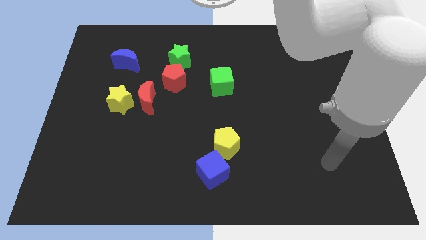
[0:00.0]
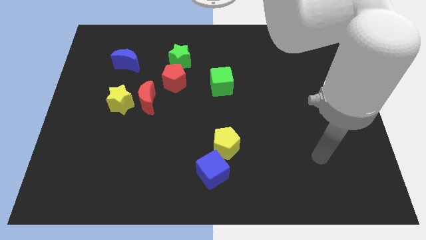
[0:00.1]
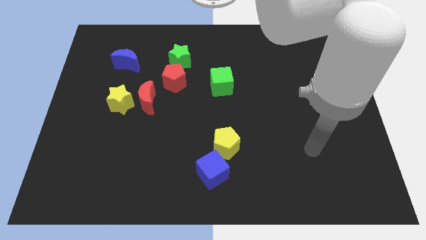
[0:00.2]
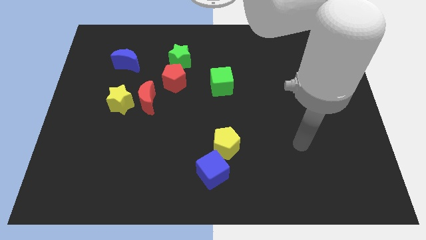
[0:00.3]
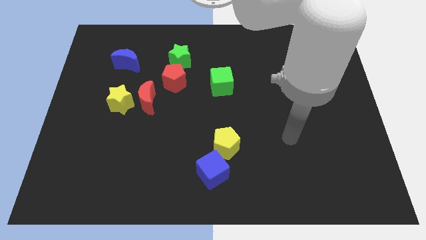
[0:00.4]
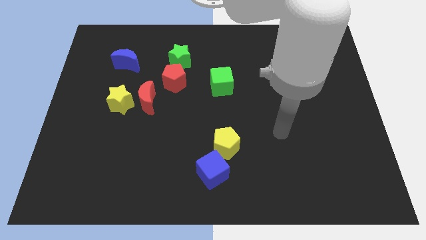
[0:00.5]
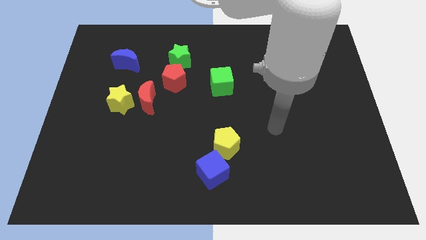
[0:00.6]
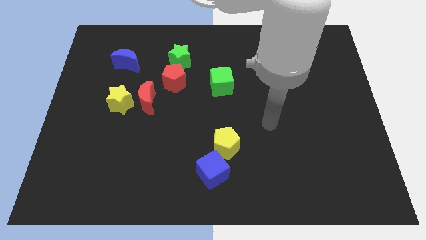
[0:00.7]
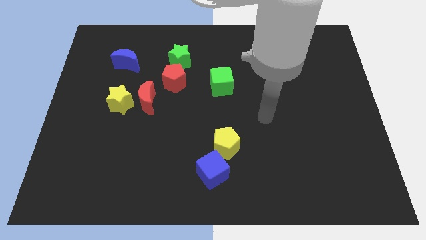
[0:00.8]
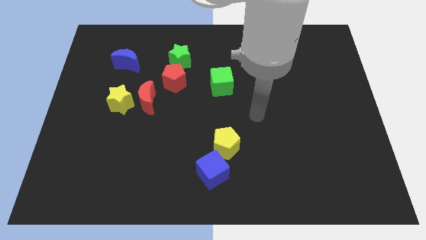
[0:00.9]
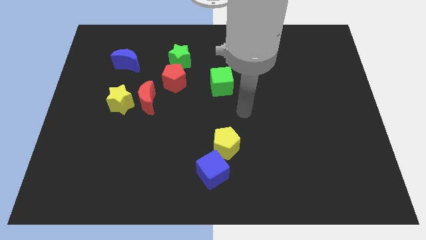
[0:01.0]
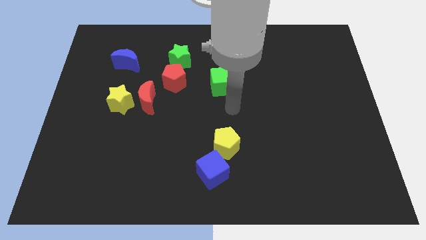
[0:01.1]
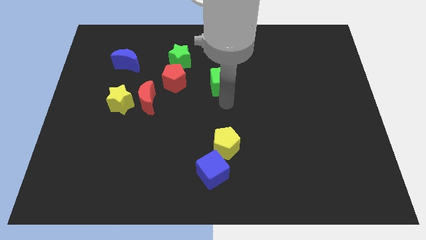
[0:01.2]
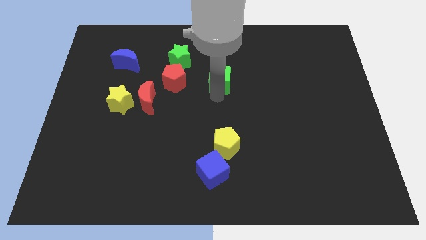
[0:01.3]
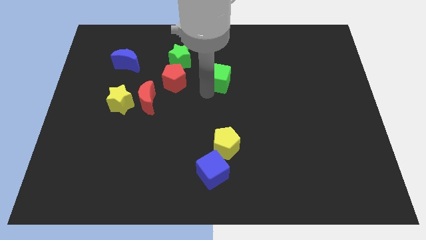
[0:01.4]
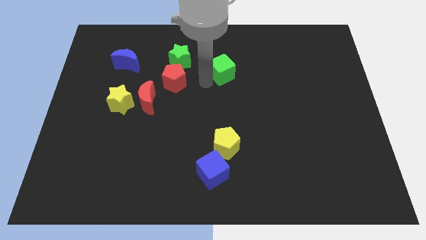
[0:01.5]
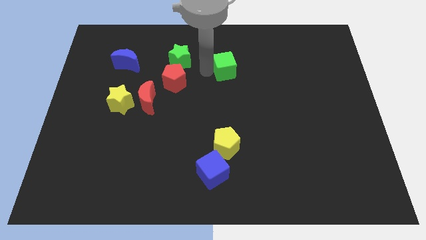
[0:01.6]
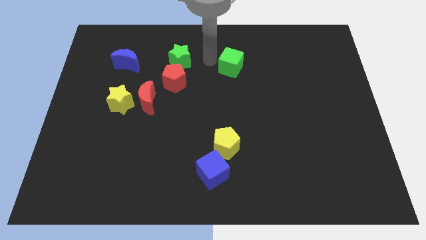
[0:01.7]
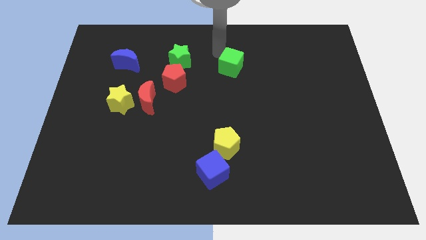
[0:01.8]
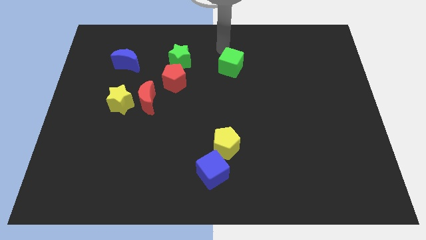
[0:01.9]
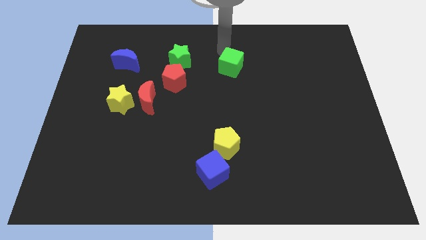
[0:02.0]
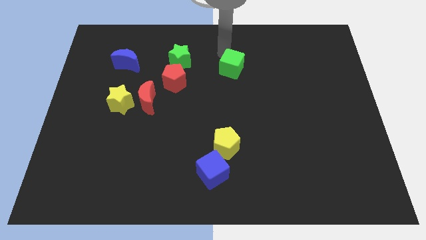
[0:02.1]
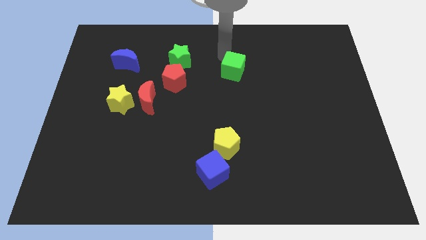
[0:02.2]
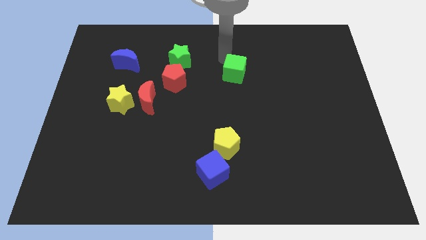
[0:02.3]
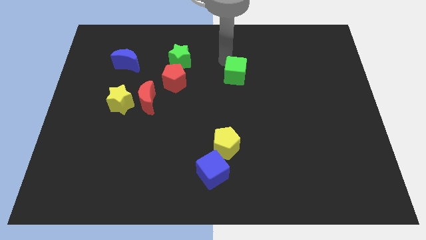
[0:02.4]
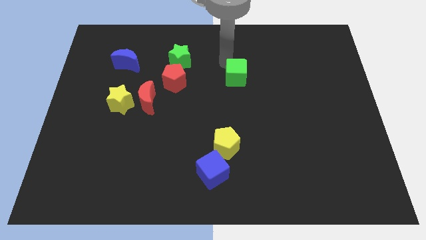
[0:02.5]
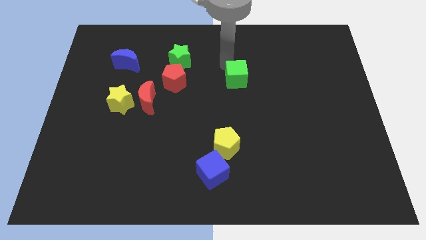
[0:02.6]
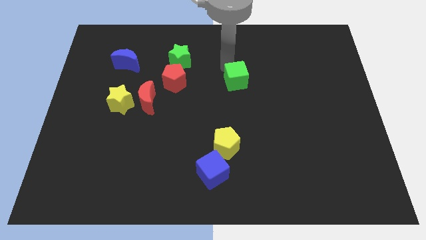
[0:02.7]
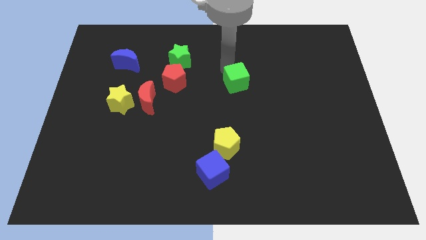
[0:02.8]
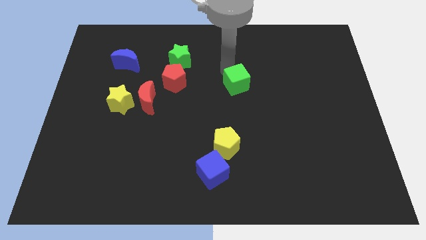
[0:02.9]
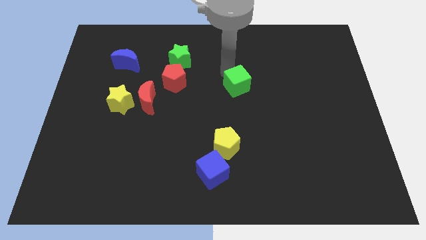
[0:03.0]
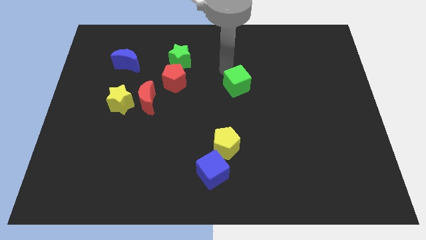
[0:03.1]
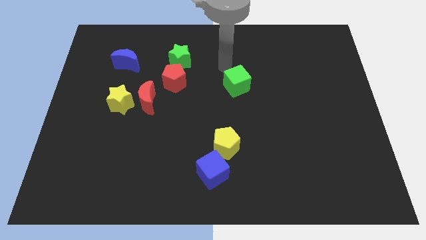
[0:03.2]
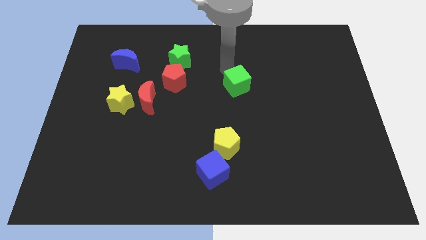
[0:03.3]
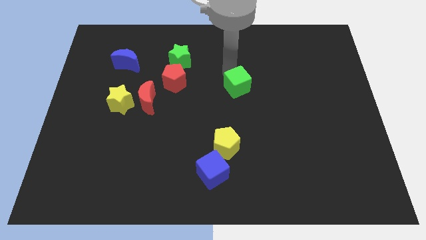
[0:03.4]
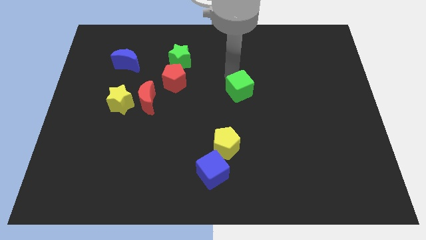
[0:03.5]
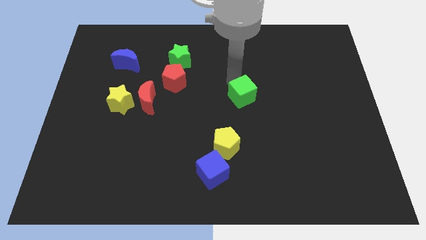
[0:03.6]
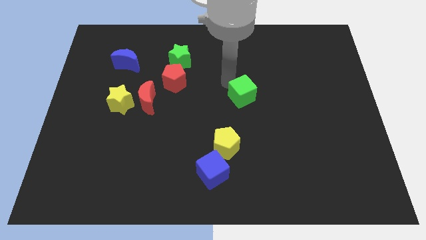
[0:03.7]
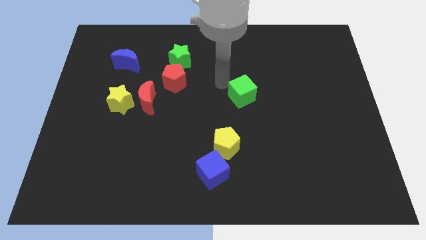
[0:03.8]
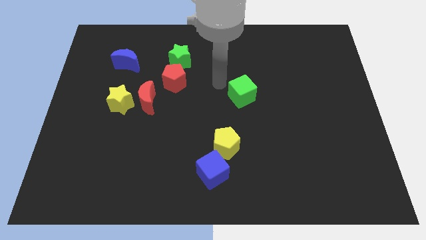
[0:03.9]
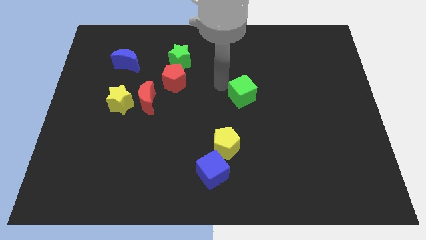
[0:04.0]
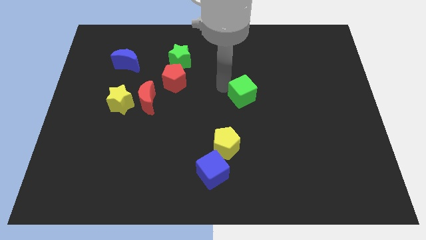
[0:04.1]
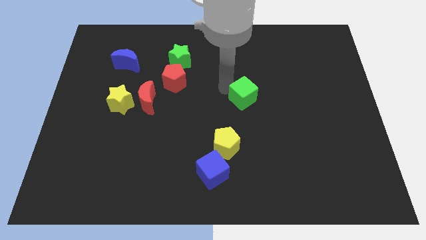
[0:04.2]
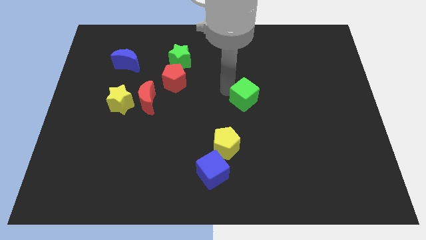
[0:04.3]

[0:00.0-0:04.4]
slightly push the green cube down and then to the right

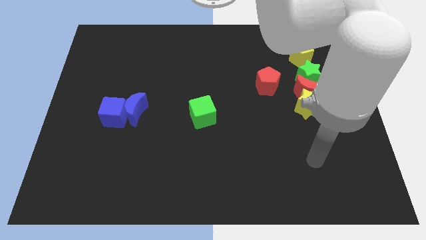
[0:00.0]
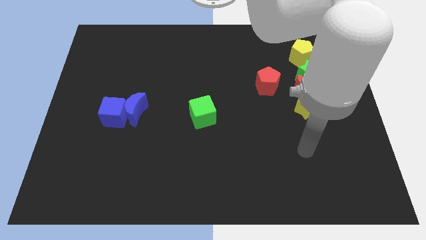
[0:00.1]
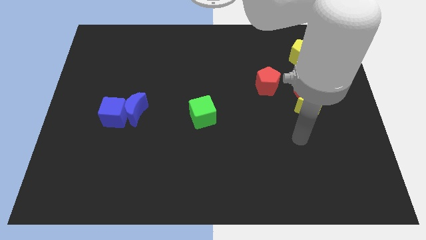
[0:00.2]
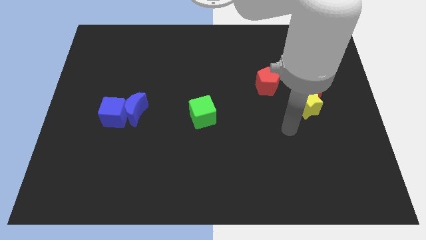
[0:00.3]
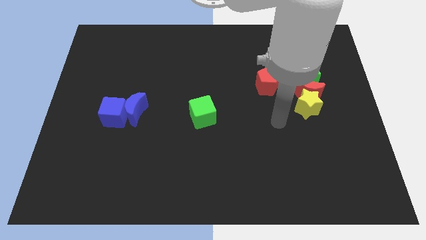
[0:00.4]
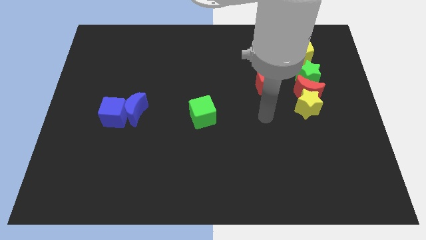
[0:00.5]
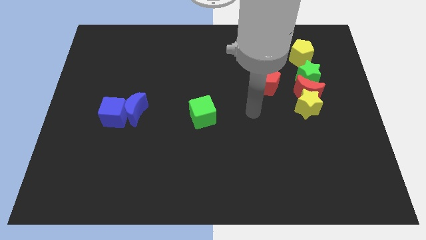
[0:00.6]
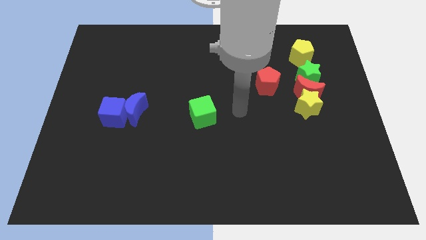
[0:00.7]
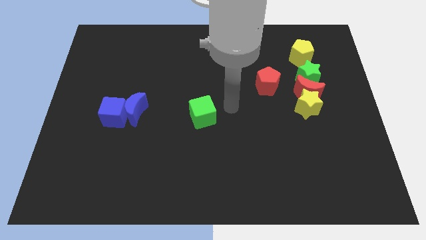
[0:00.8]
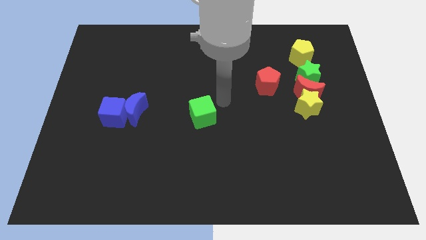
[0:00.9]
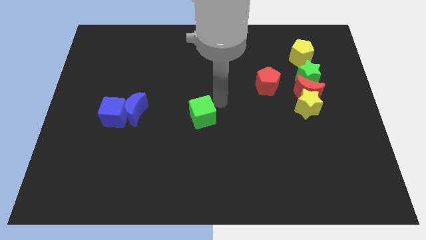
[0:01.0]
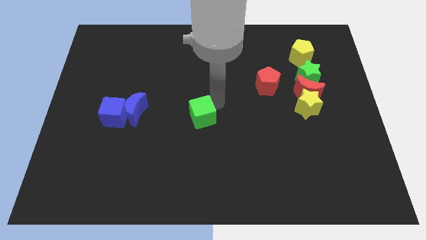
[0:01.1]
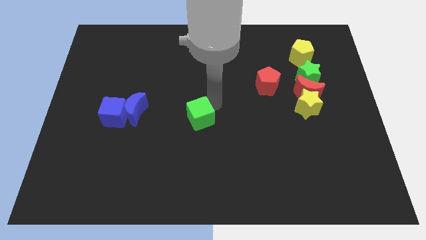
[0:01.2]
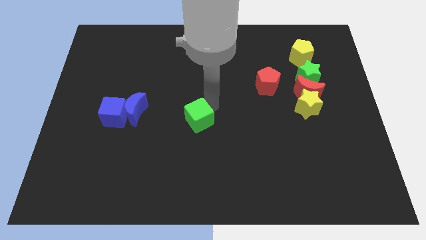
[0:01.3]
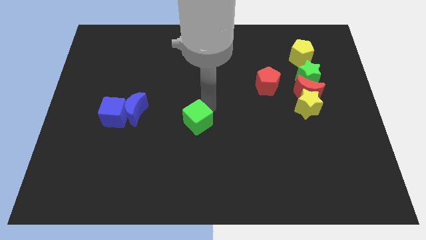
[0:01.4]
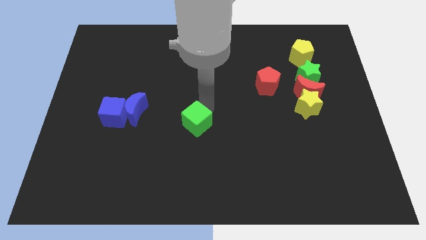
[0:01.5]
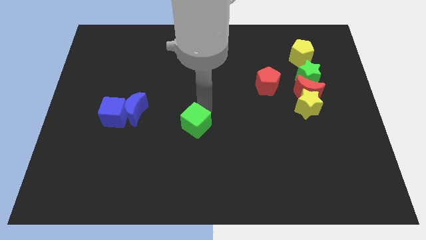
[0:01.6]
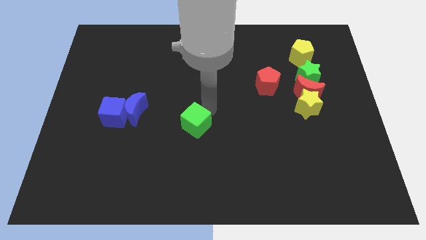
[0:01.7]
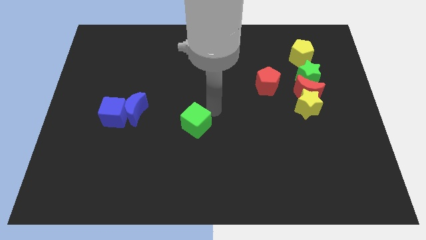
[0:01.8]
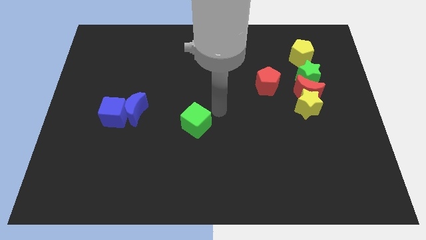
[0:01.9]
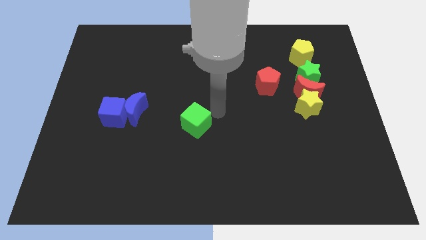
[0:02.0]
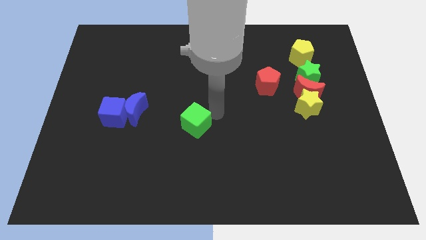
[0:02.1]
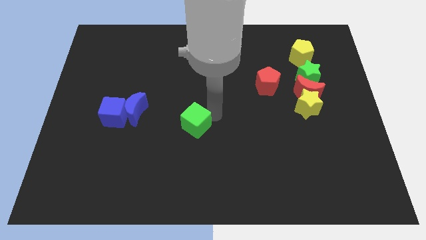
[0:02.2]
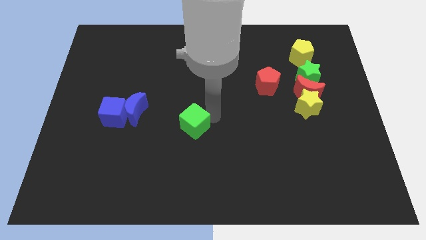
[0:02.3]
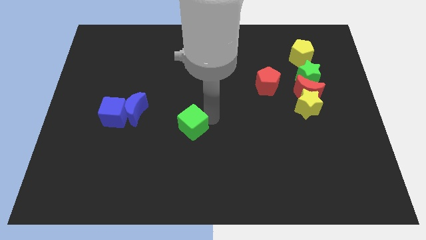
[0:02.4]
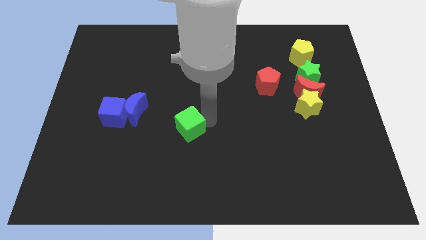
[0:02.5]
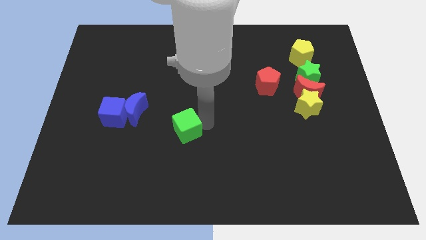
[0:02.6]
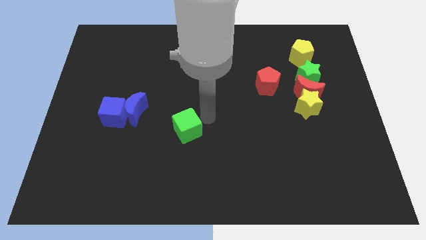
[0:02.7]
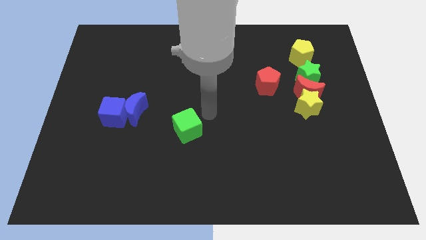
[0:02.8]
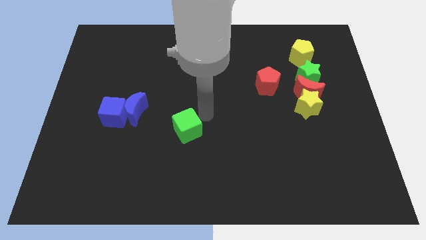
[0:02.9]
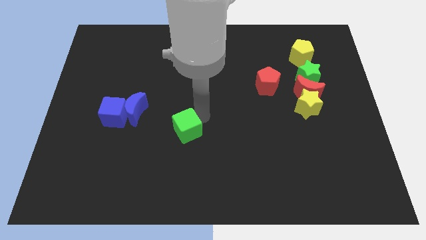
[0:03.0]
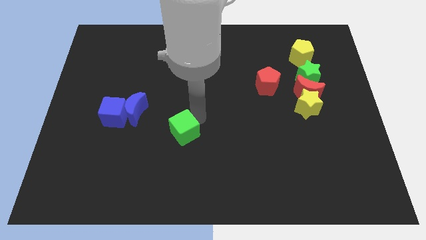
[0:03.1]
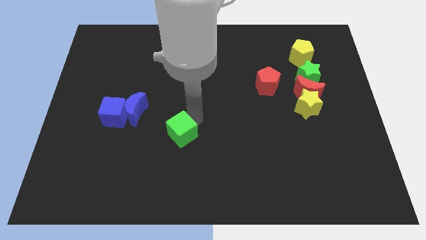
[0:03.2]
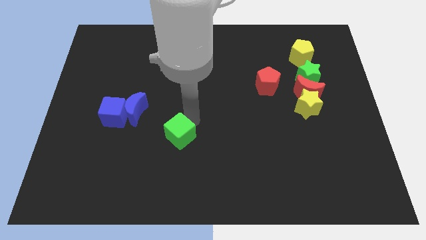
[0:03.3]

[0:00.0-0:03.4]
slide the green cube a little down and to the left diagonally

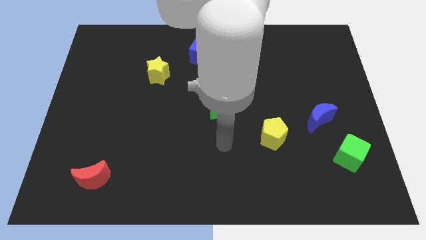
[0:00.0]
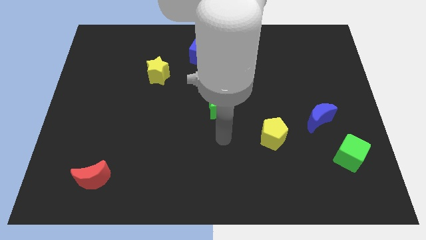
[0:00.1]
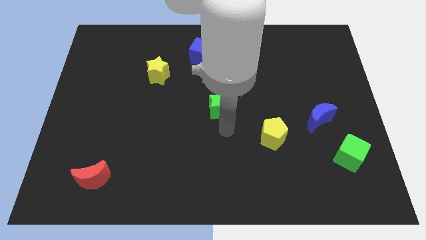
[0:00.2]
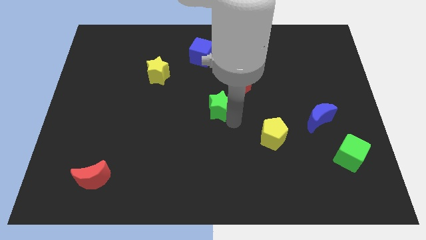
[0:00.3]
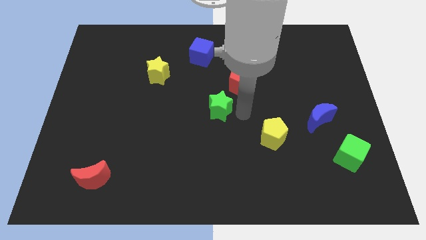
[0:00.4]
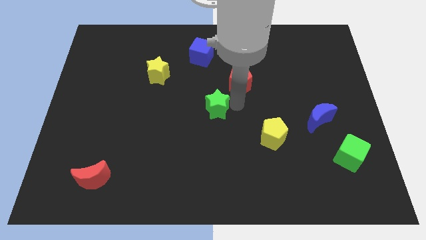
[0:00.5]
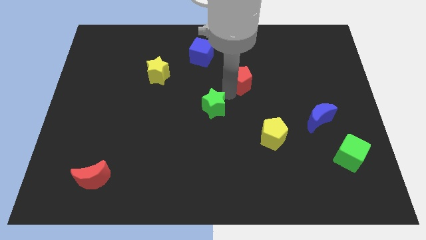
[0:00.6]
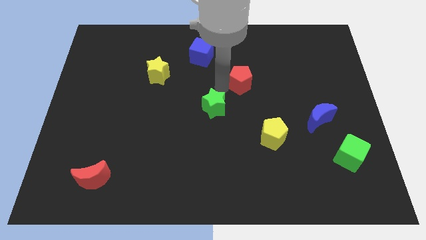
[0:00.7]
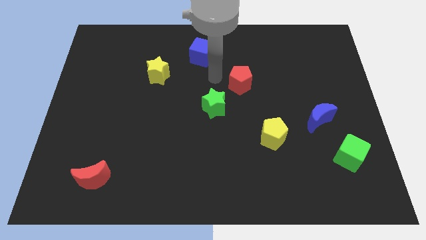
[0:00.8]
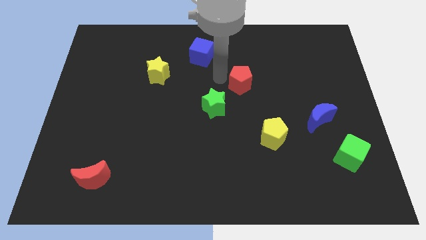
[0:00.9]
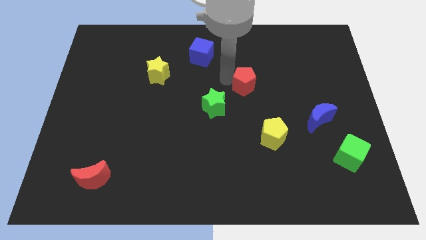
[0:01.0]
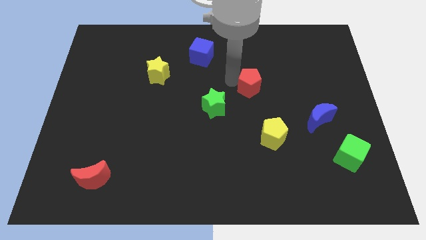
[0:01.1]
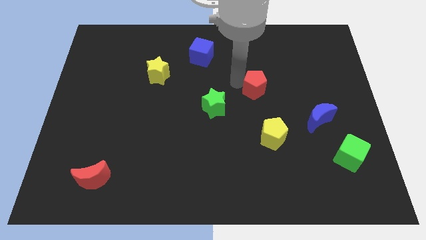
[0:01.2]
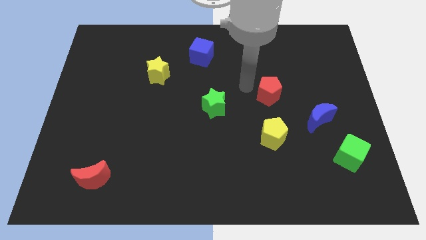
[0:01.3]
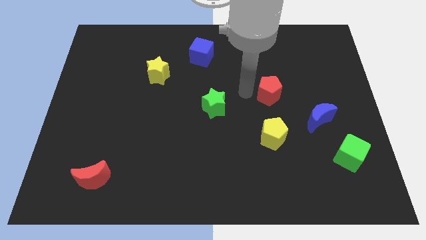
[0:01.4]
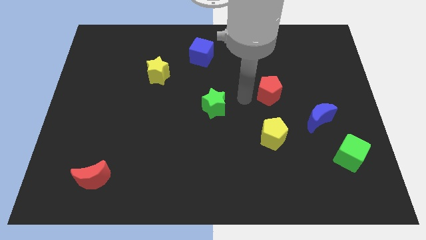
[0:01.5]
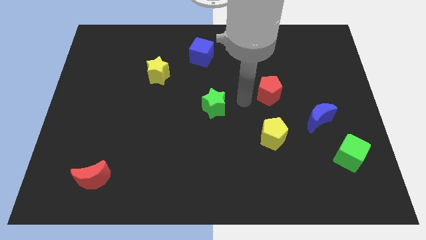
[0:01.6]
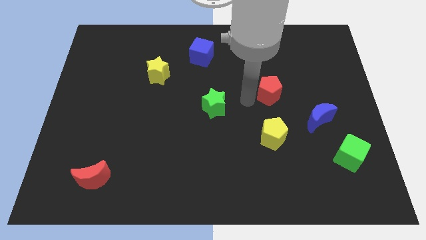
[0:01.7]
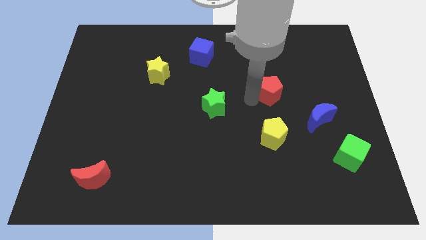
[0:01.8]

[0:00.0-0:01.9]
slightly push the red pentagon right
